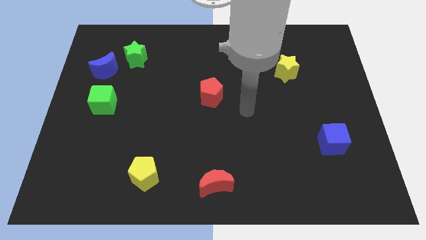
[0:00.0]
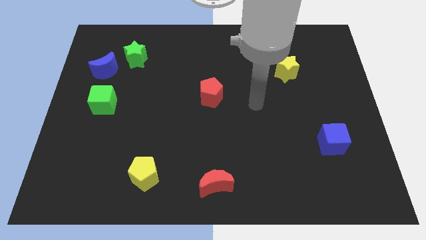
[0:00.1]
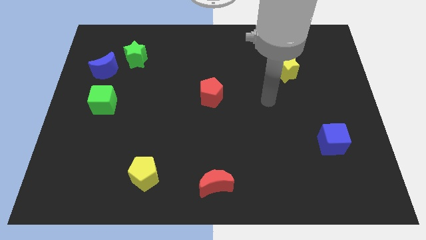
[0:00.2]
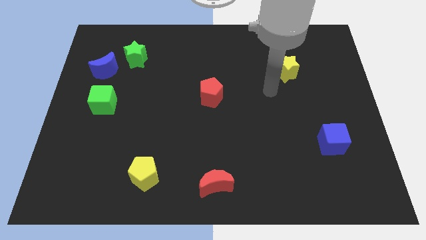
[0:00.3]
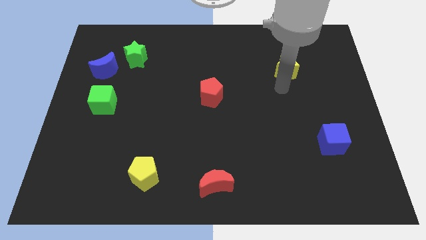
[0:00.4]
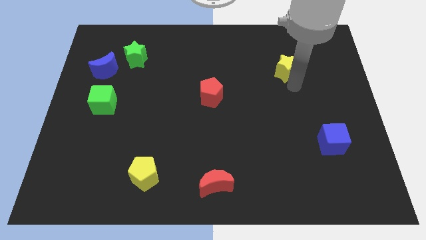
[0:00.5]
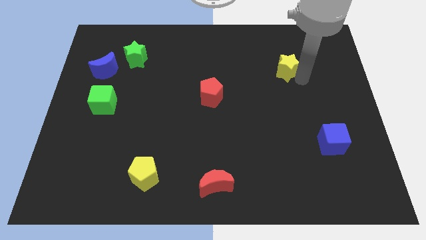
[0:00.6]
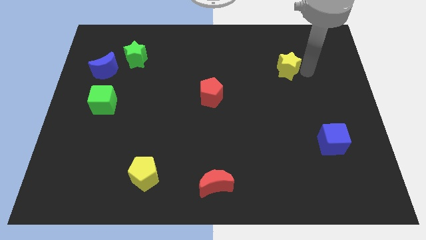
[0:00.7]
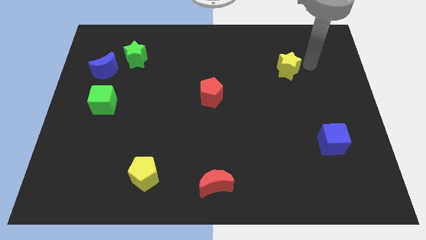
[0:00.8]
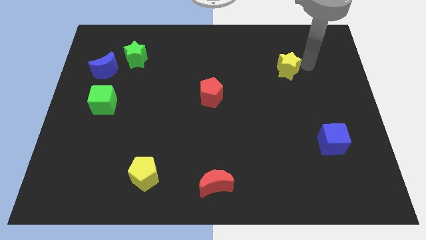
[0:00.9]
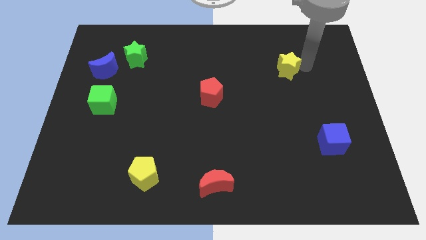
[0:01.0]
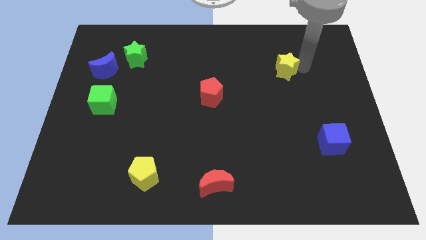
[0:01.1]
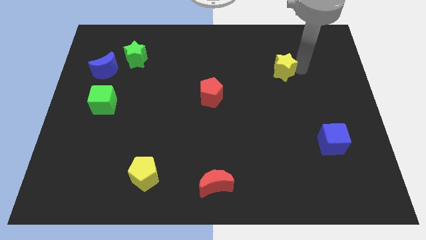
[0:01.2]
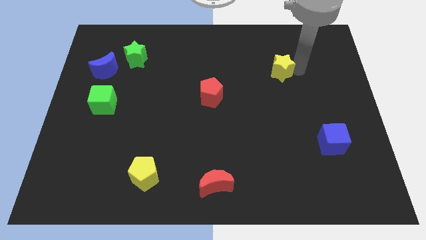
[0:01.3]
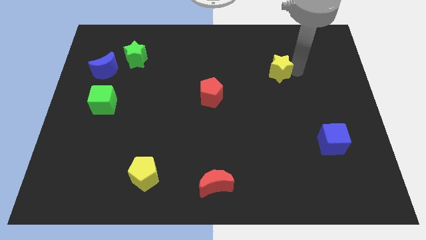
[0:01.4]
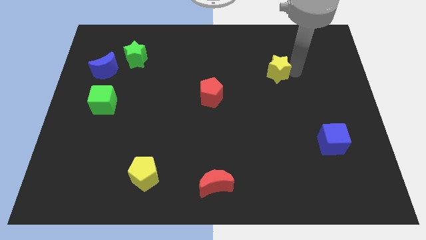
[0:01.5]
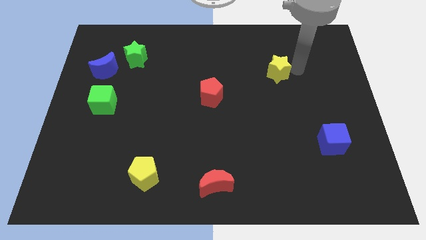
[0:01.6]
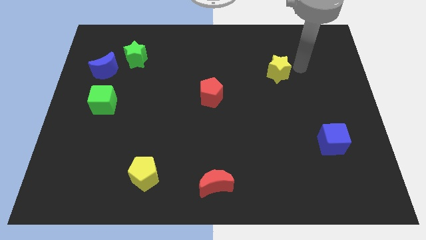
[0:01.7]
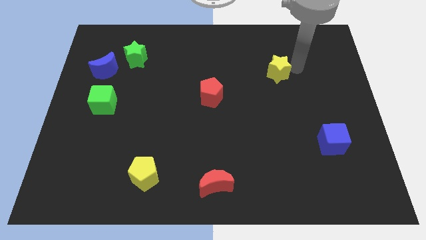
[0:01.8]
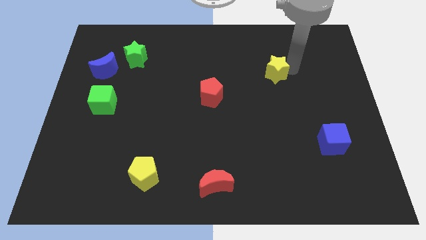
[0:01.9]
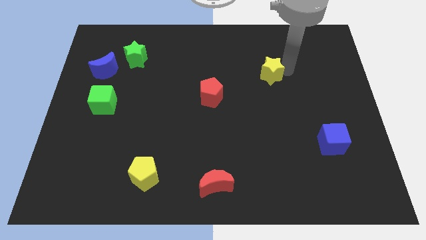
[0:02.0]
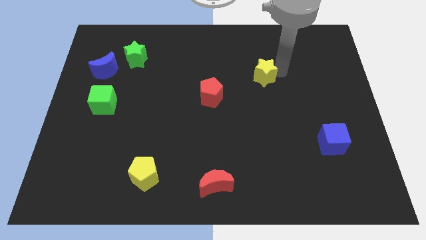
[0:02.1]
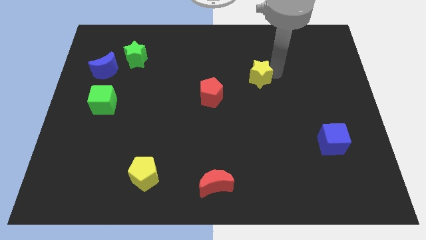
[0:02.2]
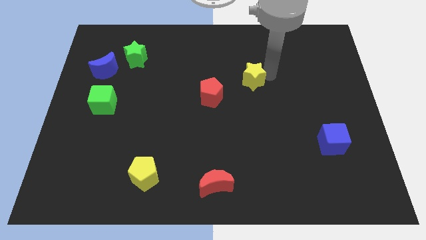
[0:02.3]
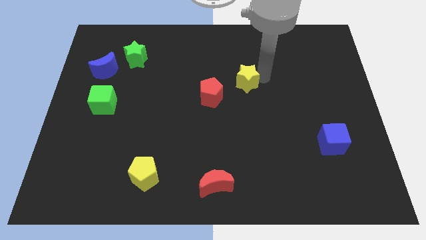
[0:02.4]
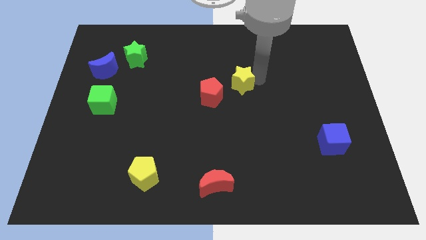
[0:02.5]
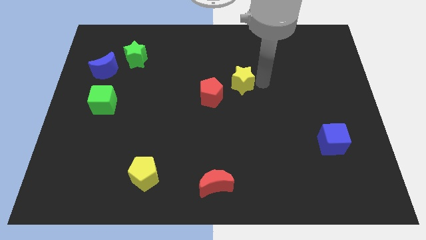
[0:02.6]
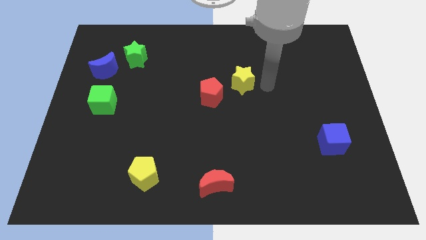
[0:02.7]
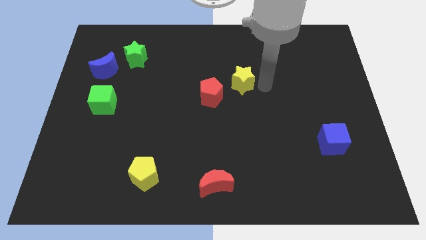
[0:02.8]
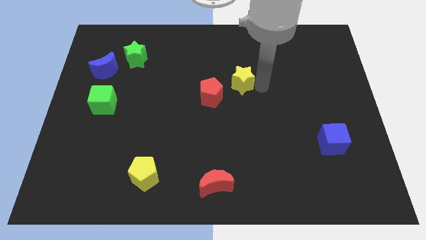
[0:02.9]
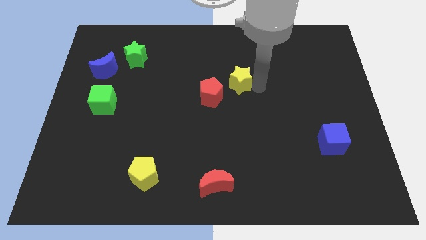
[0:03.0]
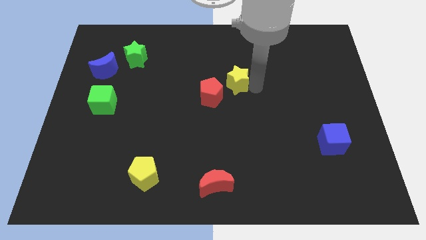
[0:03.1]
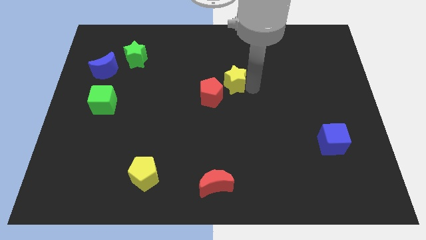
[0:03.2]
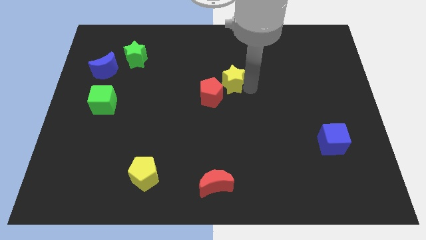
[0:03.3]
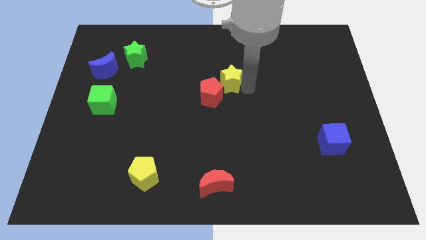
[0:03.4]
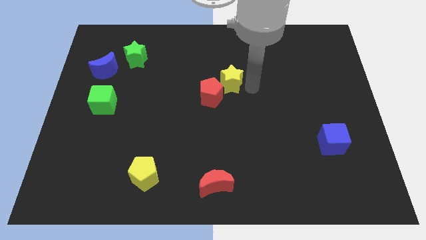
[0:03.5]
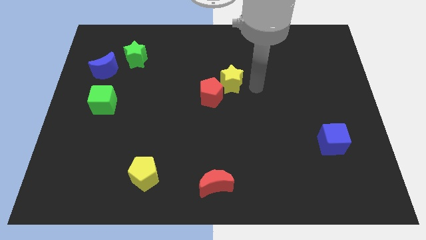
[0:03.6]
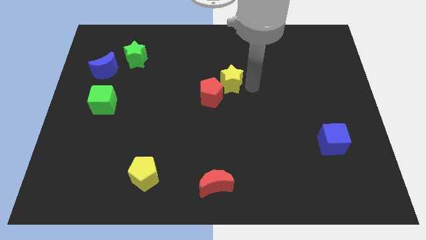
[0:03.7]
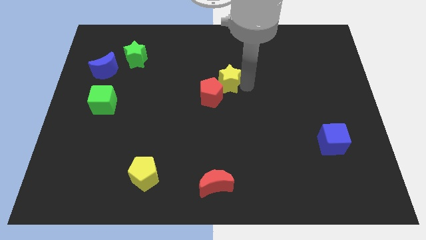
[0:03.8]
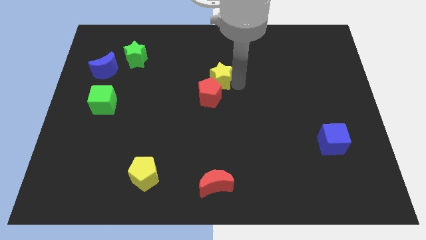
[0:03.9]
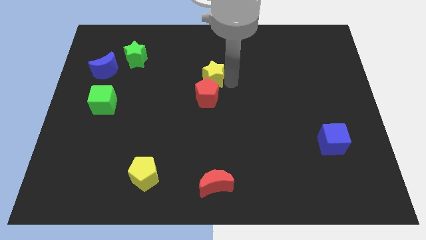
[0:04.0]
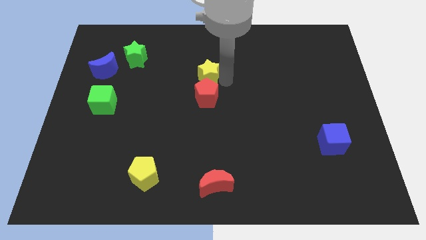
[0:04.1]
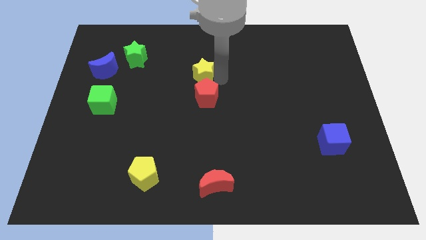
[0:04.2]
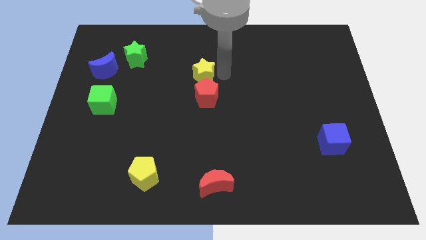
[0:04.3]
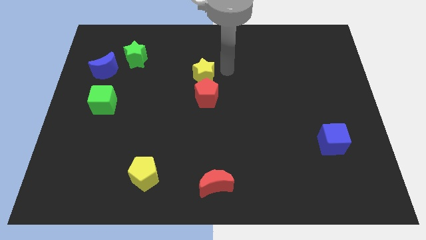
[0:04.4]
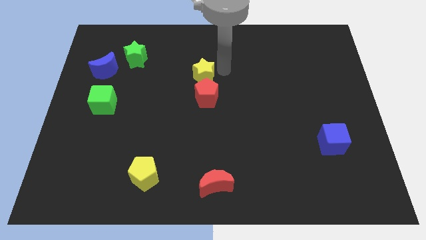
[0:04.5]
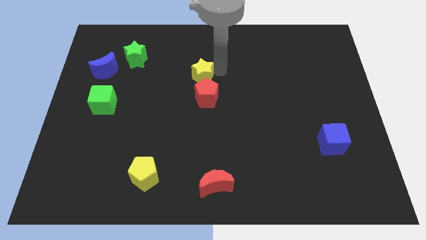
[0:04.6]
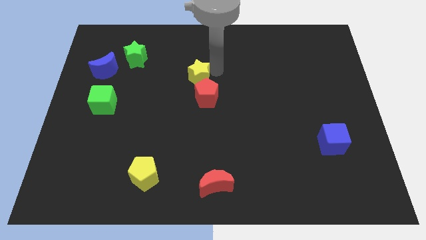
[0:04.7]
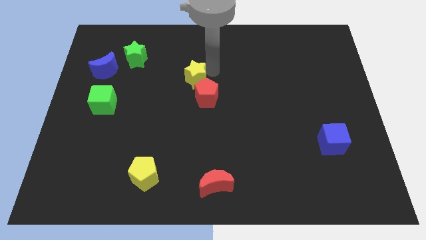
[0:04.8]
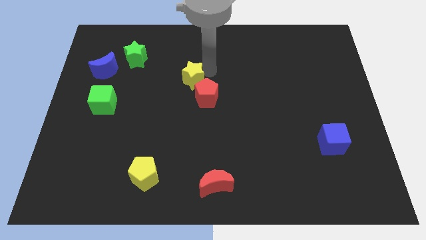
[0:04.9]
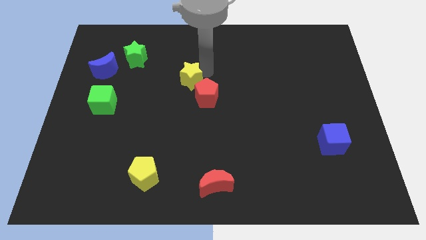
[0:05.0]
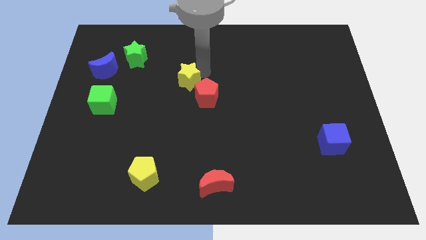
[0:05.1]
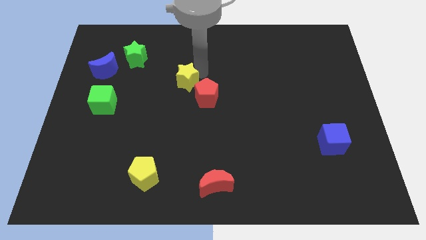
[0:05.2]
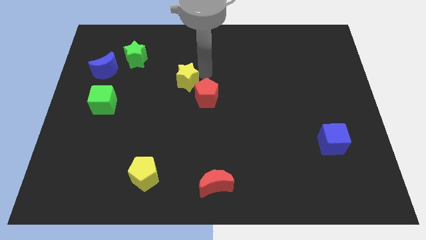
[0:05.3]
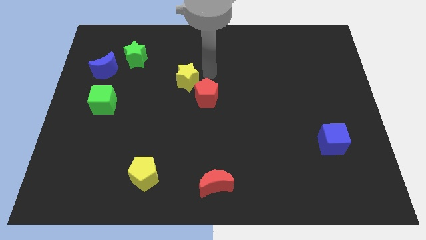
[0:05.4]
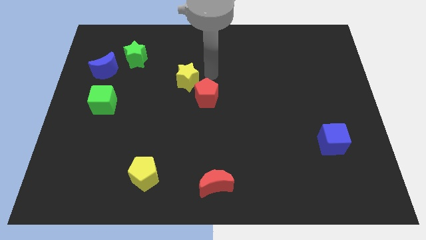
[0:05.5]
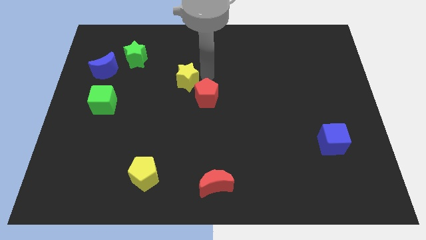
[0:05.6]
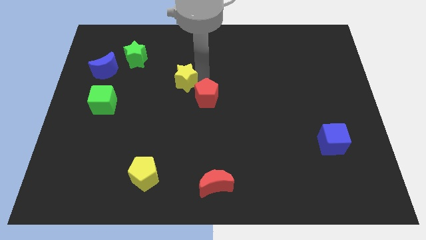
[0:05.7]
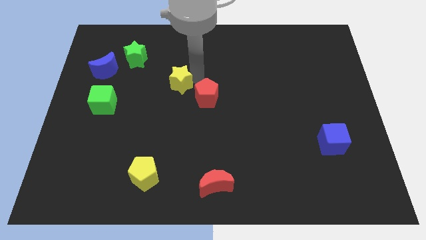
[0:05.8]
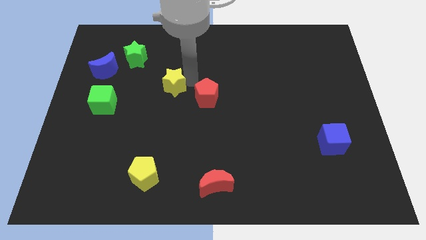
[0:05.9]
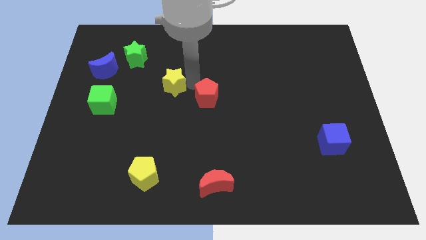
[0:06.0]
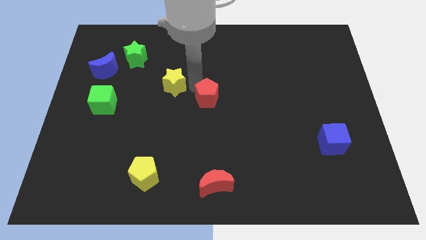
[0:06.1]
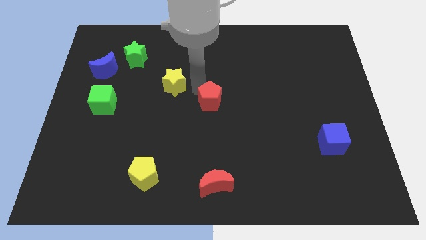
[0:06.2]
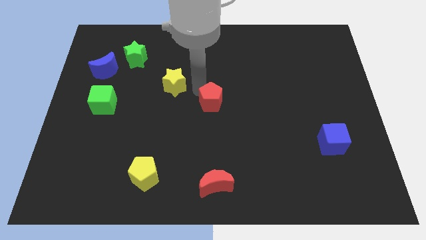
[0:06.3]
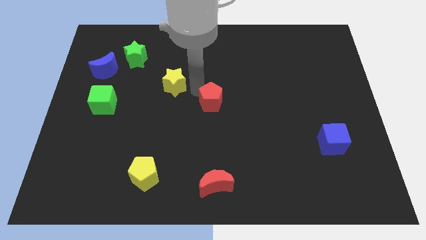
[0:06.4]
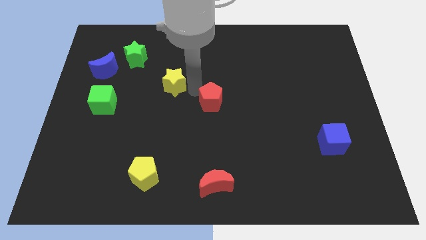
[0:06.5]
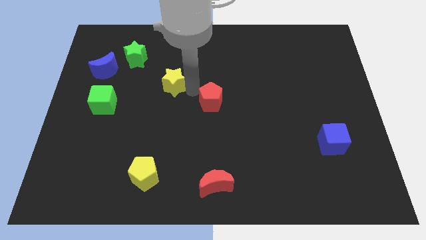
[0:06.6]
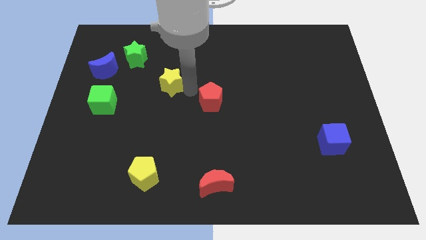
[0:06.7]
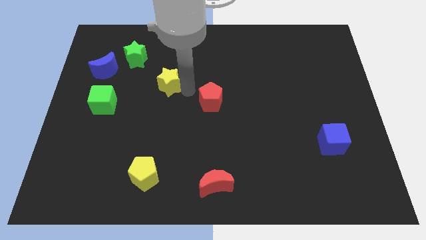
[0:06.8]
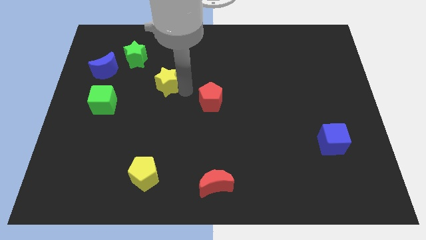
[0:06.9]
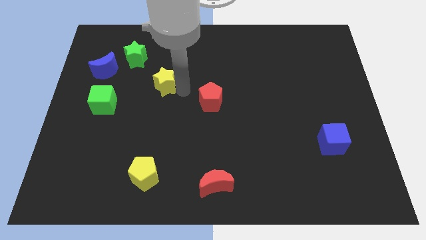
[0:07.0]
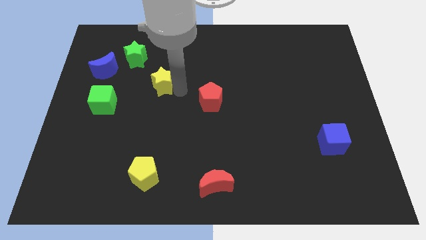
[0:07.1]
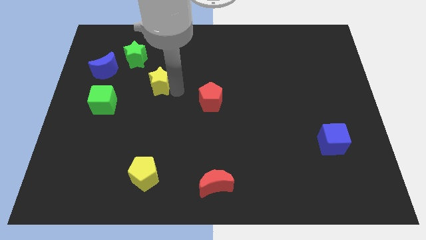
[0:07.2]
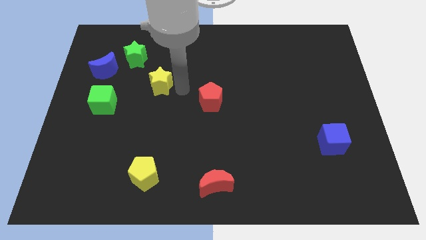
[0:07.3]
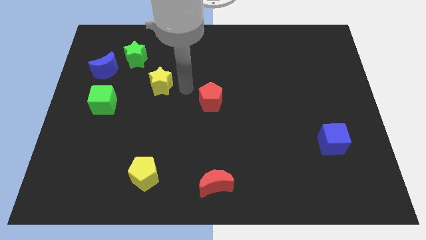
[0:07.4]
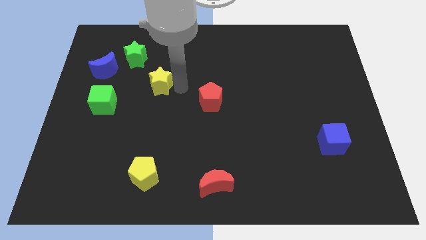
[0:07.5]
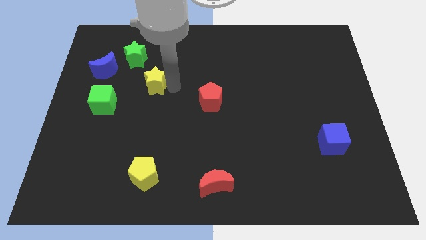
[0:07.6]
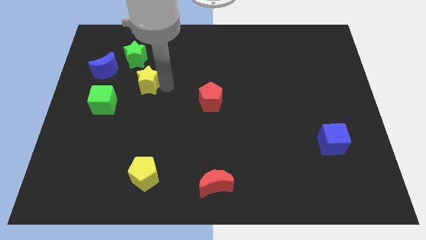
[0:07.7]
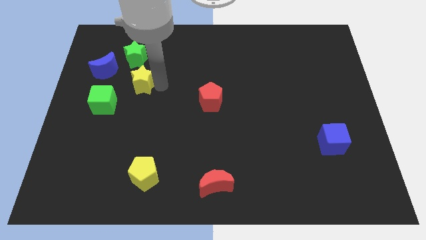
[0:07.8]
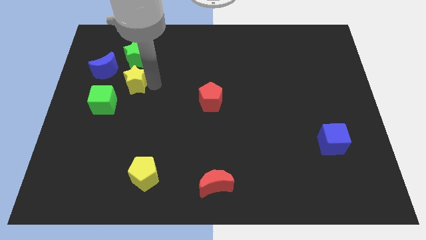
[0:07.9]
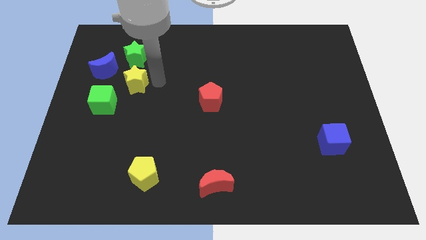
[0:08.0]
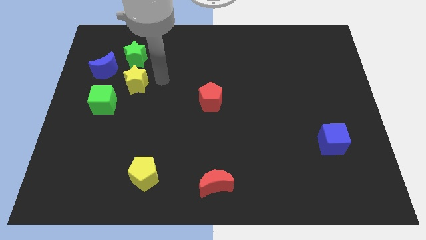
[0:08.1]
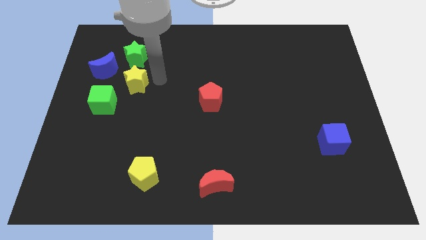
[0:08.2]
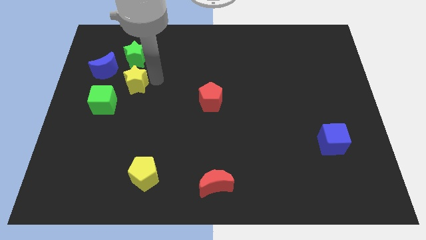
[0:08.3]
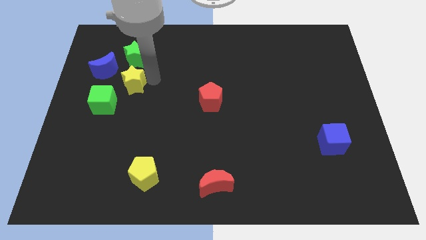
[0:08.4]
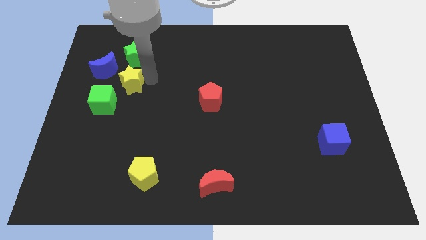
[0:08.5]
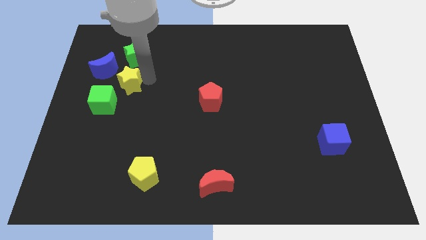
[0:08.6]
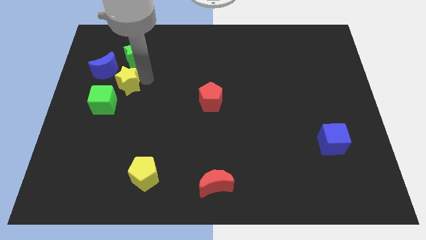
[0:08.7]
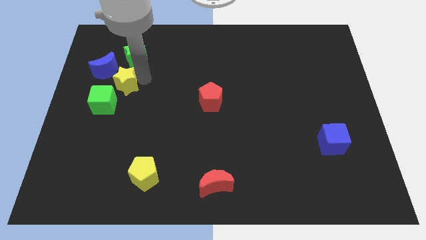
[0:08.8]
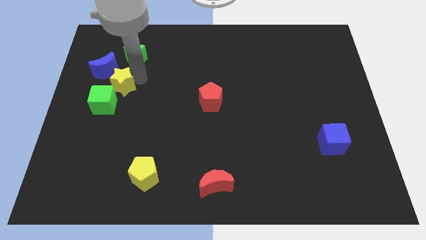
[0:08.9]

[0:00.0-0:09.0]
move the yellow star to the bottom side of the blue moon
